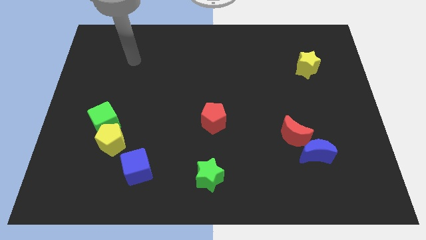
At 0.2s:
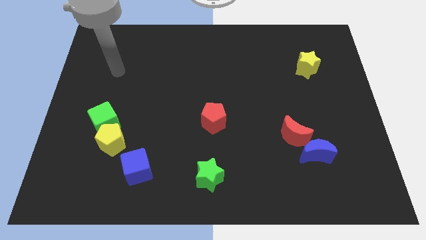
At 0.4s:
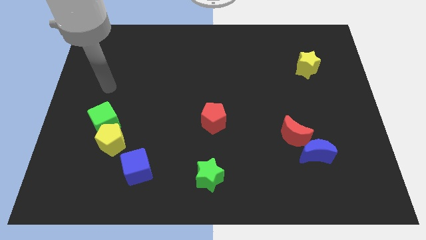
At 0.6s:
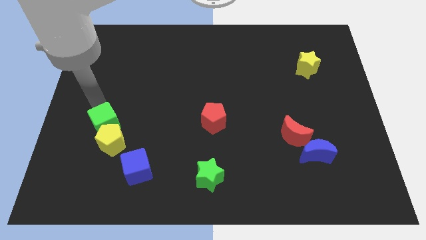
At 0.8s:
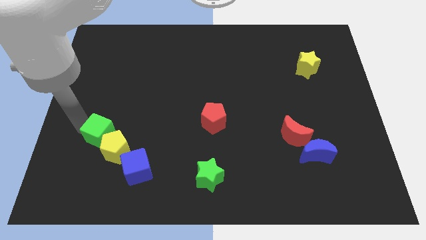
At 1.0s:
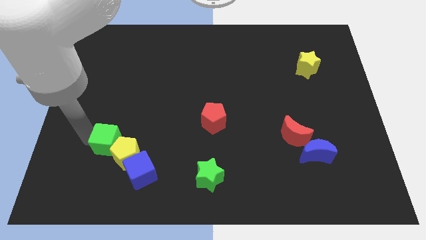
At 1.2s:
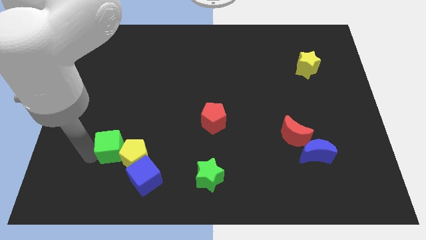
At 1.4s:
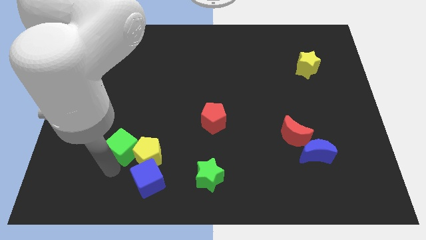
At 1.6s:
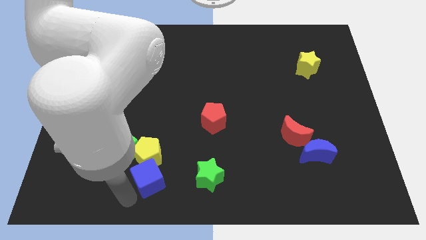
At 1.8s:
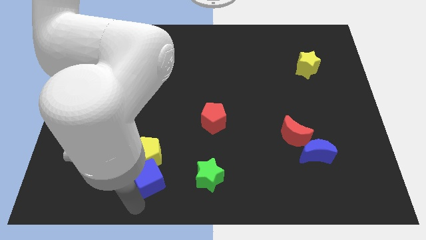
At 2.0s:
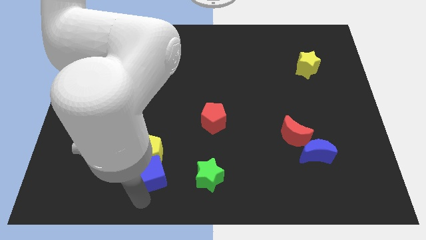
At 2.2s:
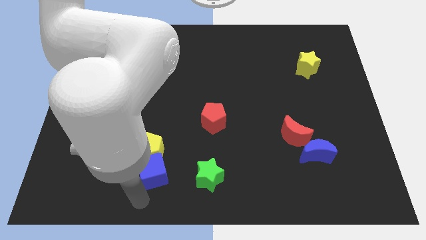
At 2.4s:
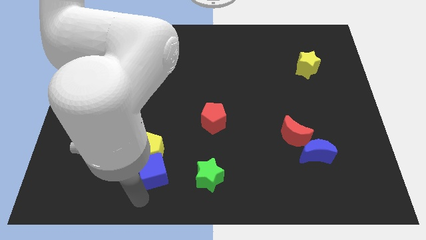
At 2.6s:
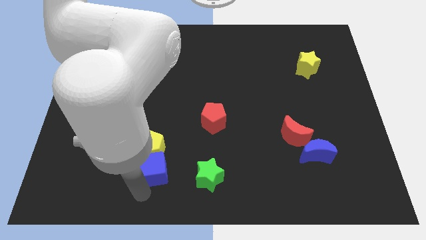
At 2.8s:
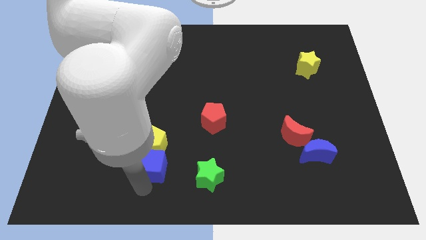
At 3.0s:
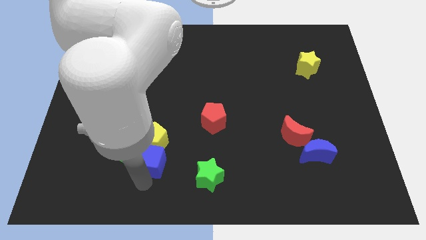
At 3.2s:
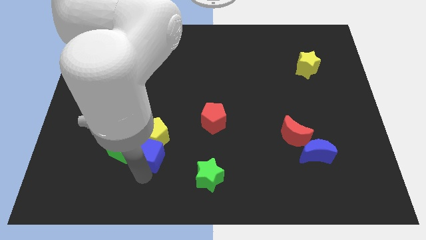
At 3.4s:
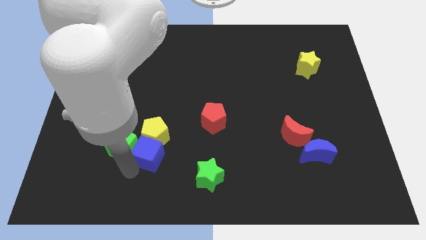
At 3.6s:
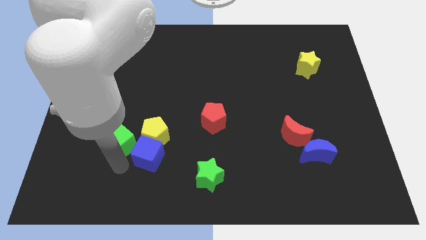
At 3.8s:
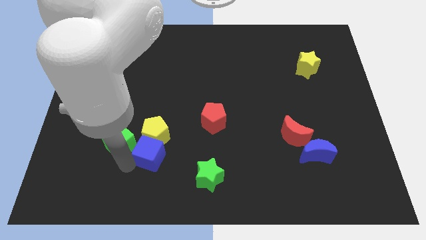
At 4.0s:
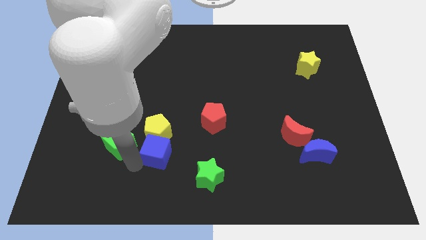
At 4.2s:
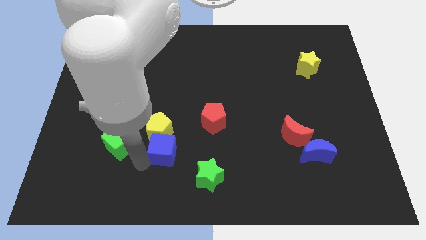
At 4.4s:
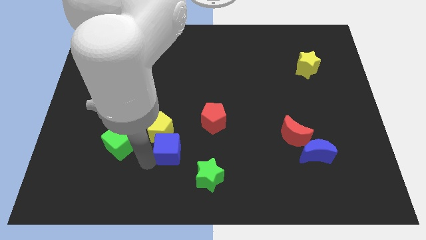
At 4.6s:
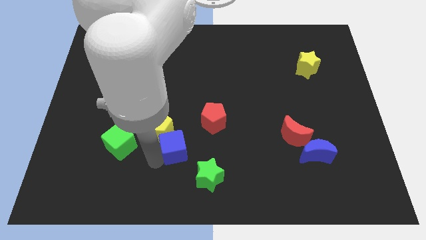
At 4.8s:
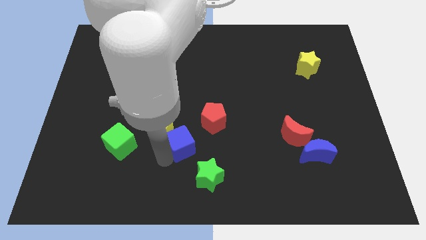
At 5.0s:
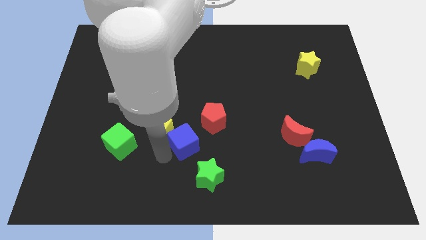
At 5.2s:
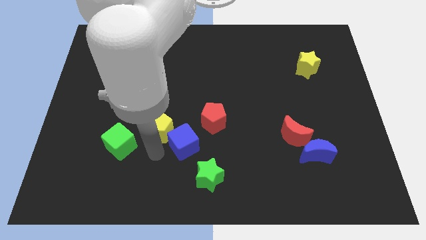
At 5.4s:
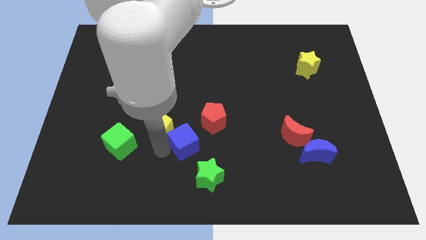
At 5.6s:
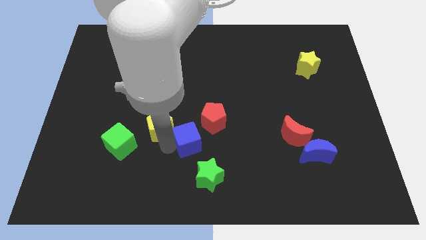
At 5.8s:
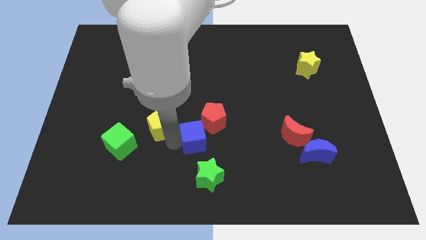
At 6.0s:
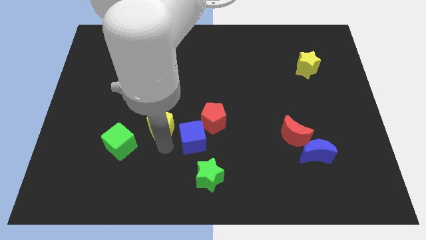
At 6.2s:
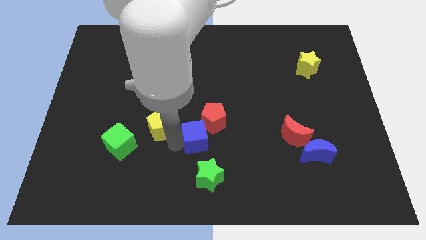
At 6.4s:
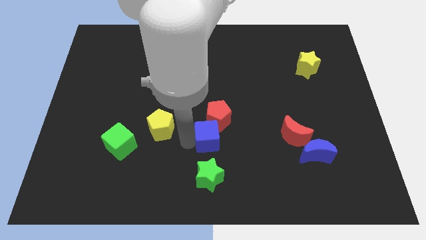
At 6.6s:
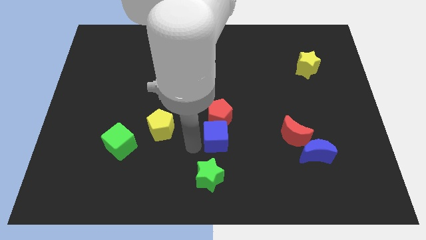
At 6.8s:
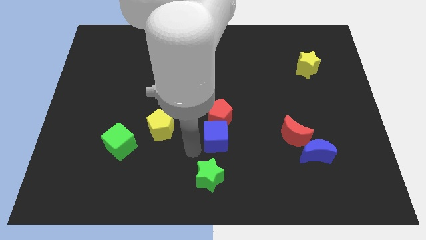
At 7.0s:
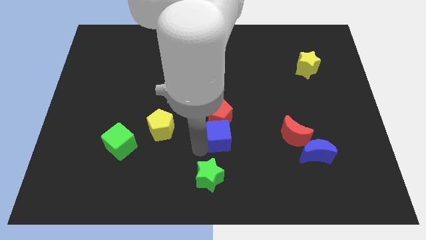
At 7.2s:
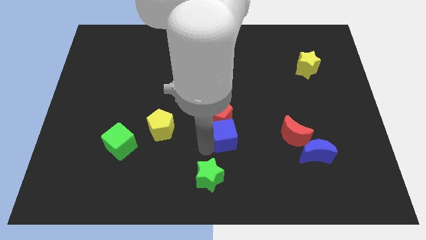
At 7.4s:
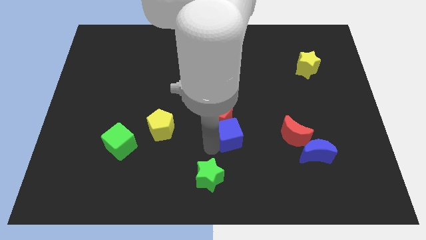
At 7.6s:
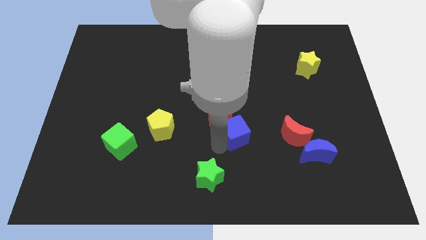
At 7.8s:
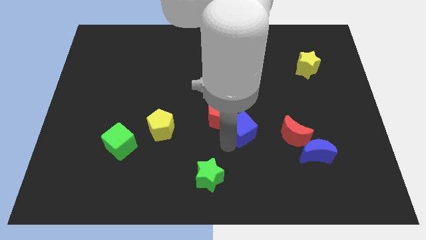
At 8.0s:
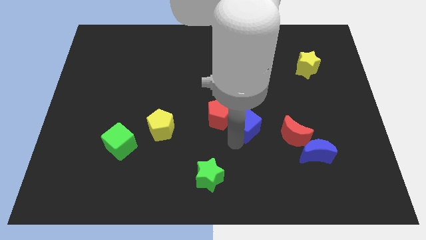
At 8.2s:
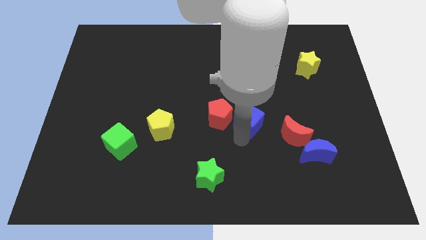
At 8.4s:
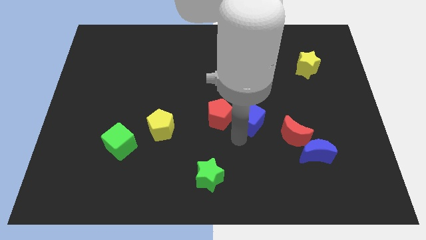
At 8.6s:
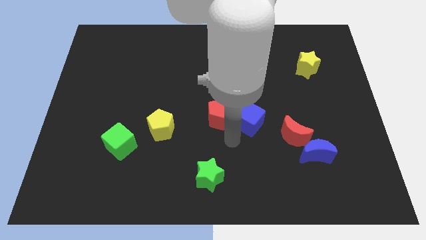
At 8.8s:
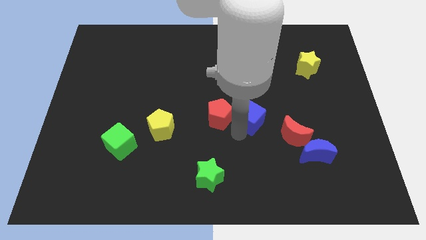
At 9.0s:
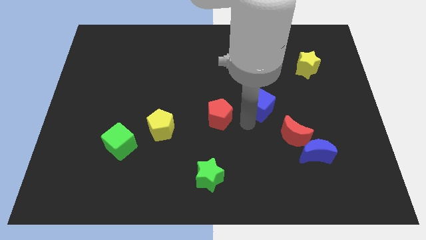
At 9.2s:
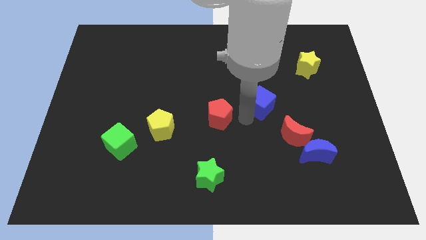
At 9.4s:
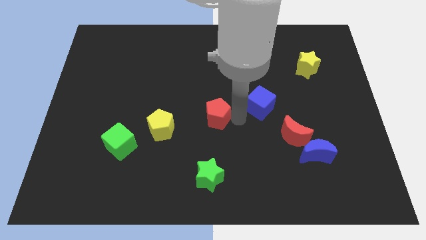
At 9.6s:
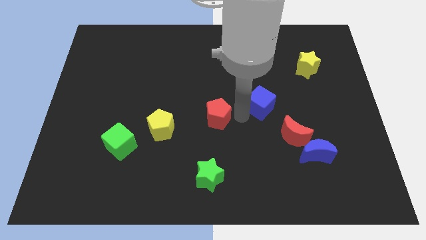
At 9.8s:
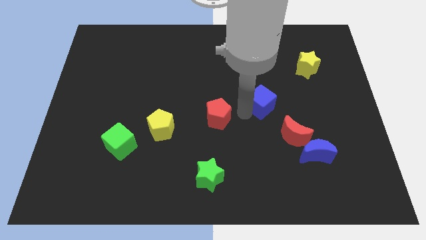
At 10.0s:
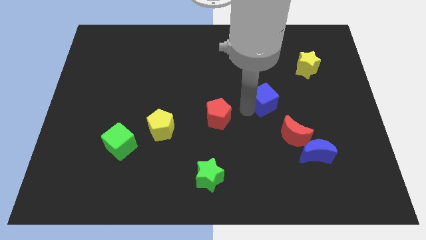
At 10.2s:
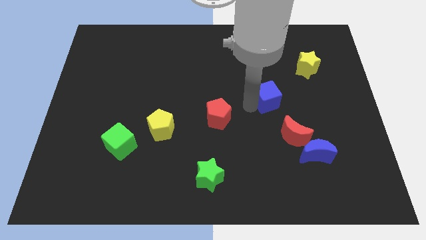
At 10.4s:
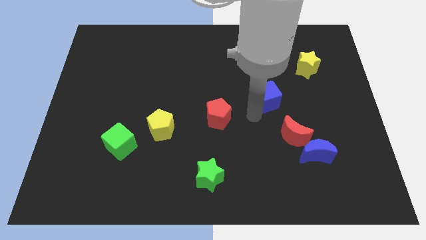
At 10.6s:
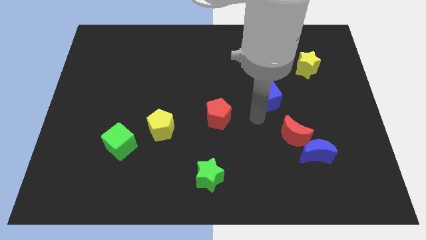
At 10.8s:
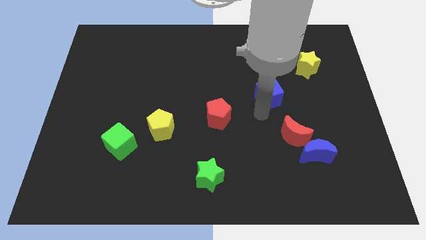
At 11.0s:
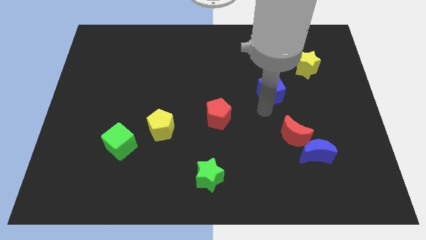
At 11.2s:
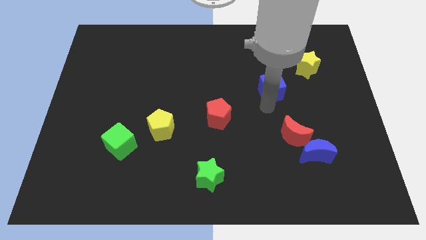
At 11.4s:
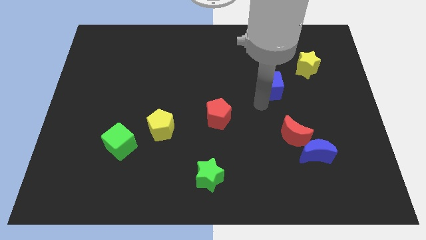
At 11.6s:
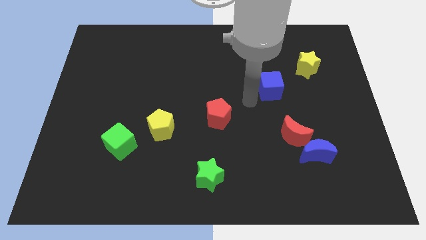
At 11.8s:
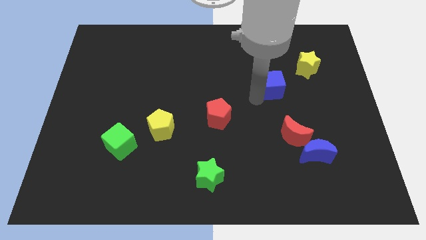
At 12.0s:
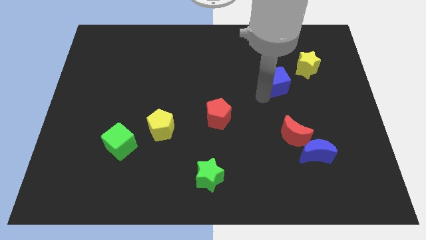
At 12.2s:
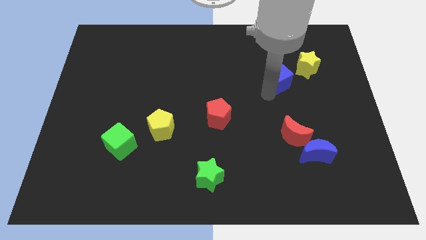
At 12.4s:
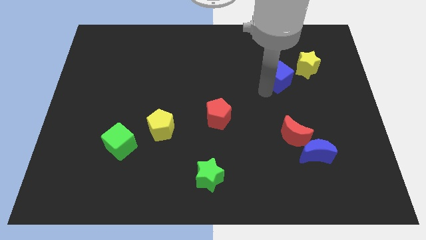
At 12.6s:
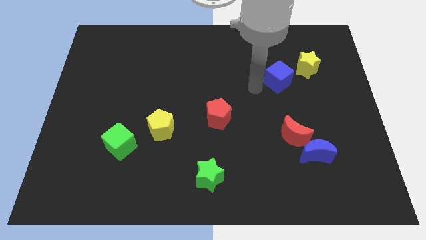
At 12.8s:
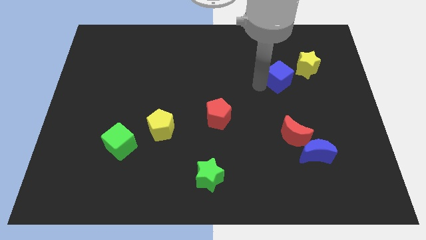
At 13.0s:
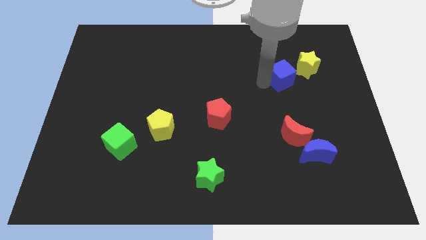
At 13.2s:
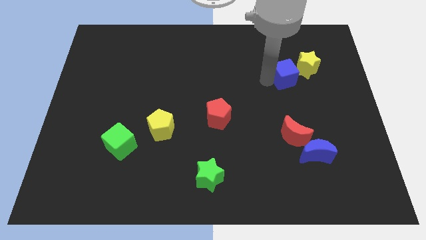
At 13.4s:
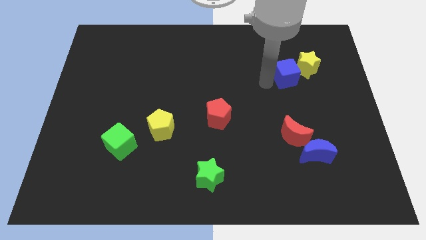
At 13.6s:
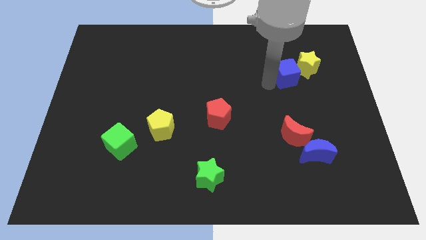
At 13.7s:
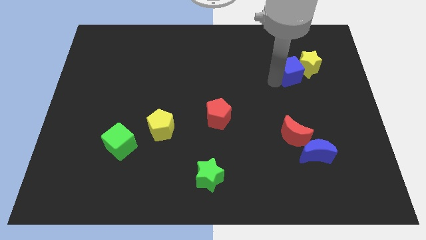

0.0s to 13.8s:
push the blue cube close to the yellow star
